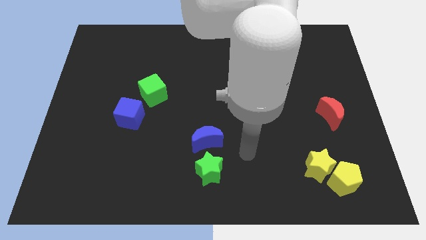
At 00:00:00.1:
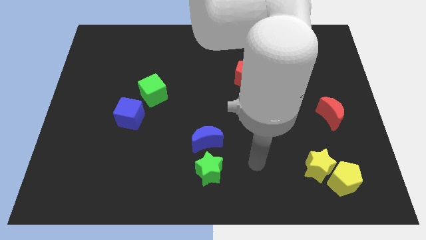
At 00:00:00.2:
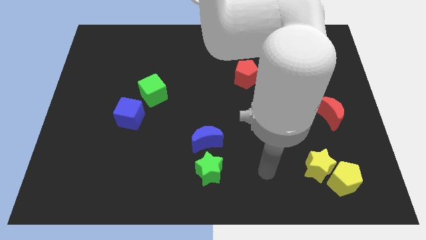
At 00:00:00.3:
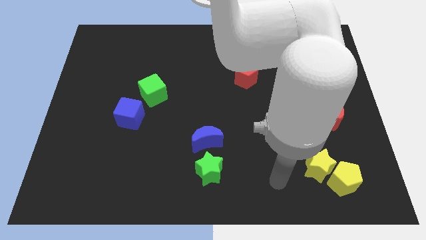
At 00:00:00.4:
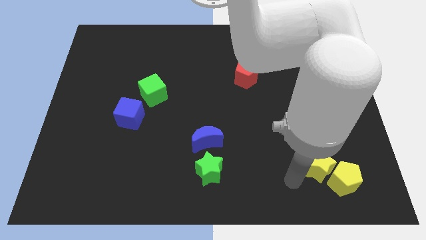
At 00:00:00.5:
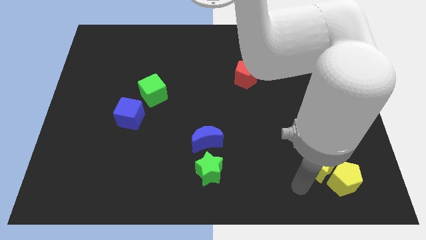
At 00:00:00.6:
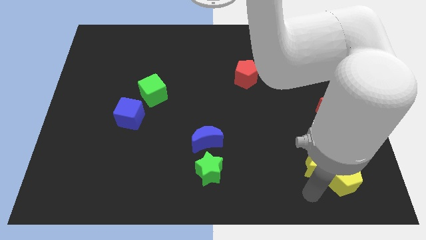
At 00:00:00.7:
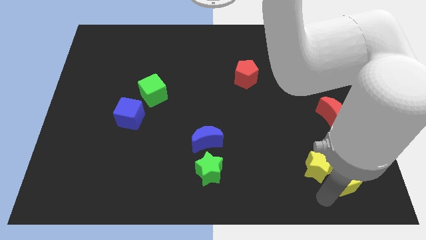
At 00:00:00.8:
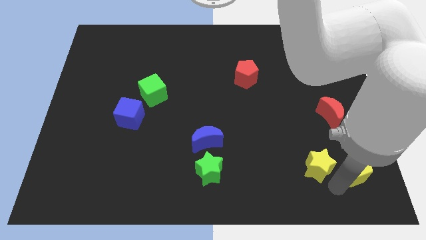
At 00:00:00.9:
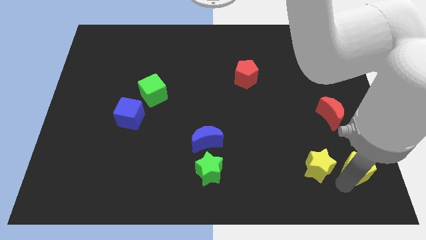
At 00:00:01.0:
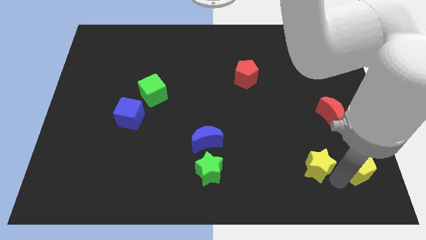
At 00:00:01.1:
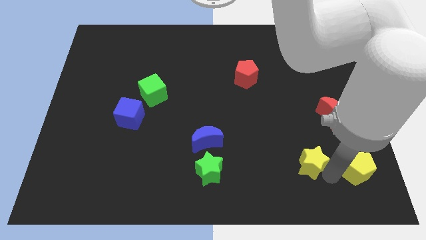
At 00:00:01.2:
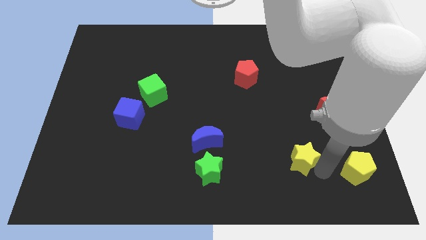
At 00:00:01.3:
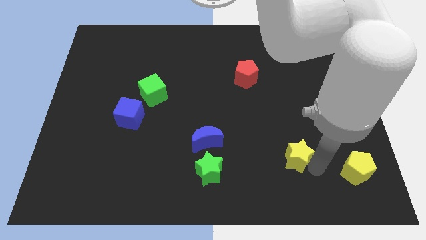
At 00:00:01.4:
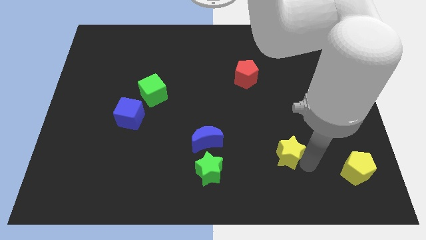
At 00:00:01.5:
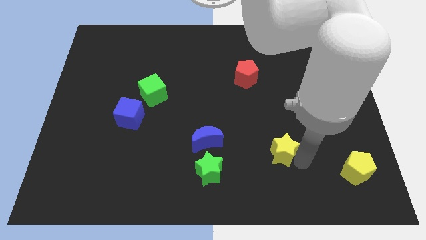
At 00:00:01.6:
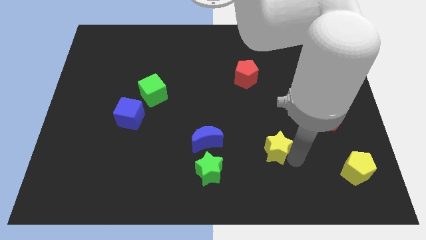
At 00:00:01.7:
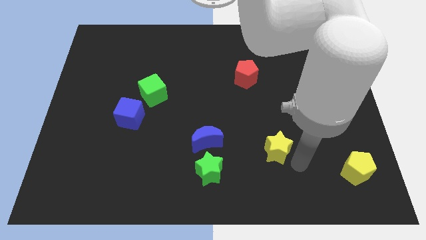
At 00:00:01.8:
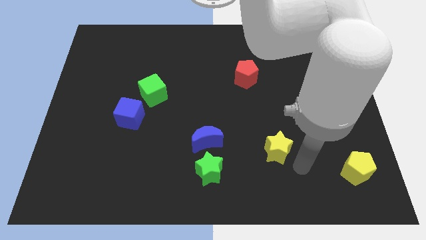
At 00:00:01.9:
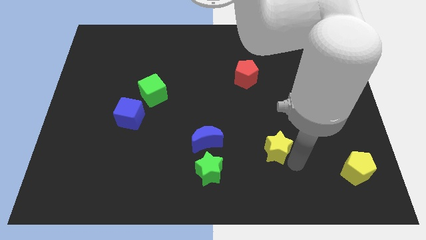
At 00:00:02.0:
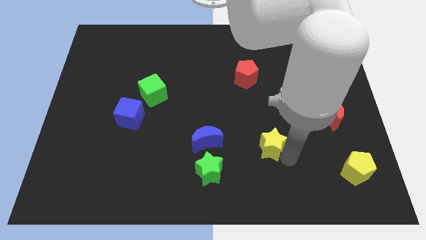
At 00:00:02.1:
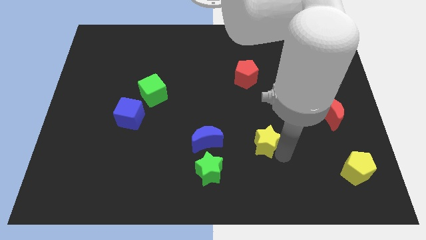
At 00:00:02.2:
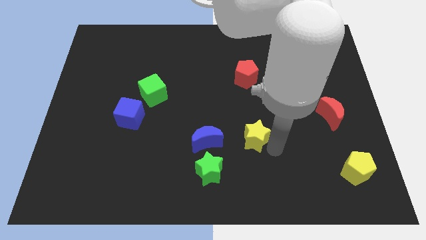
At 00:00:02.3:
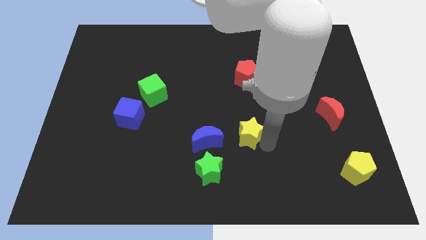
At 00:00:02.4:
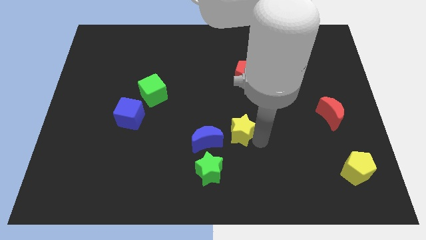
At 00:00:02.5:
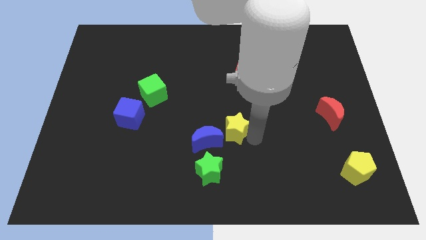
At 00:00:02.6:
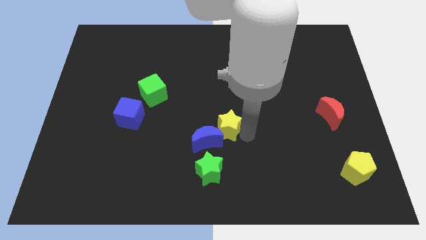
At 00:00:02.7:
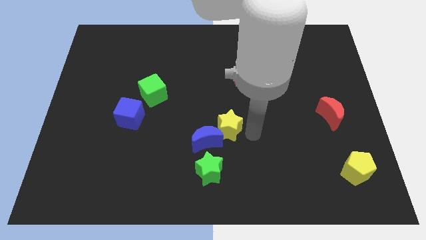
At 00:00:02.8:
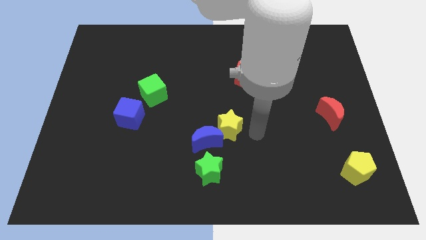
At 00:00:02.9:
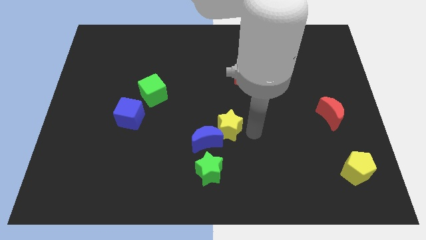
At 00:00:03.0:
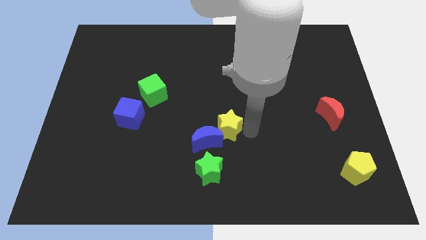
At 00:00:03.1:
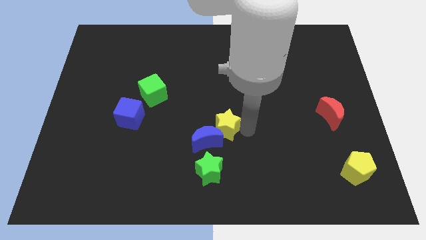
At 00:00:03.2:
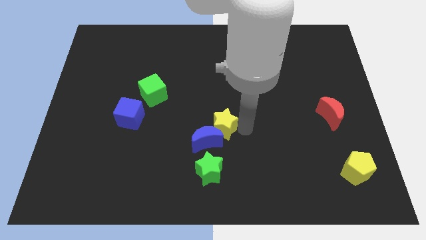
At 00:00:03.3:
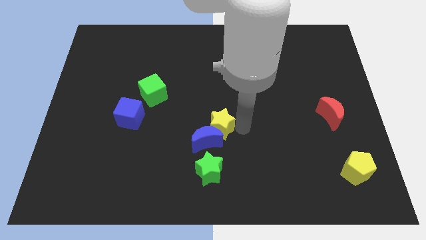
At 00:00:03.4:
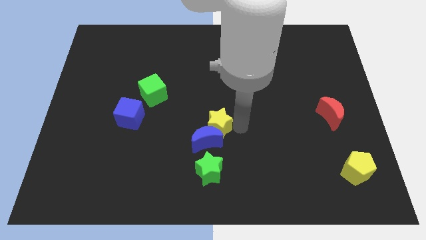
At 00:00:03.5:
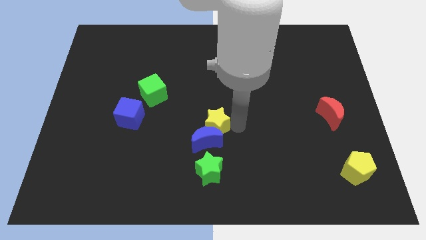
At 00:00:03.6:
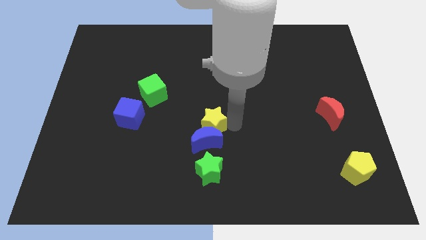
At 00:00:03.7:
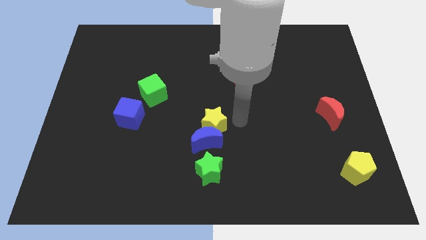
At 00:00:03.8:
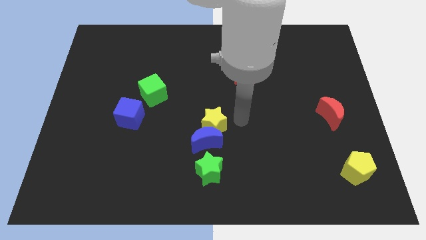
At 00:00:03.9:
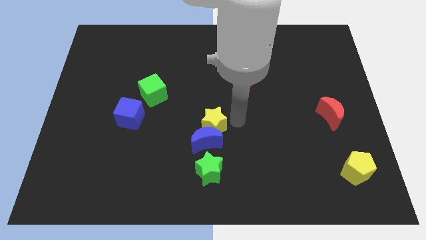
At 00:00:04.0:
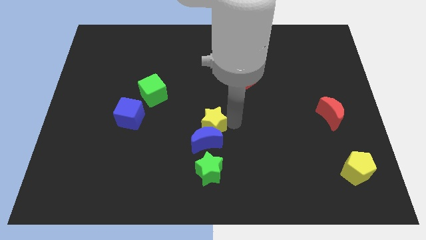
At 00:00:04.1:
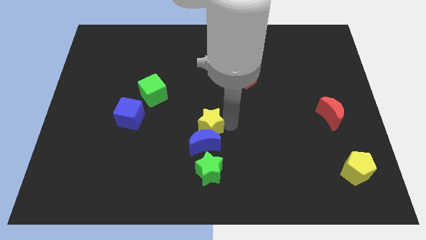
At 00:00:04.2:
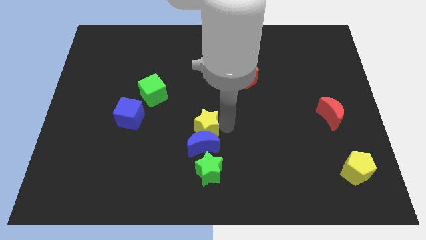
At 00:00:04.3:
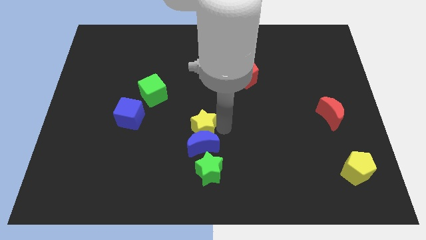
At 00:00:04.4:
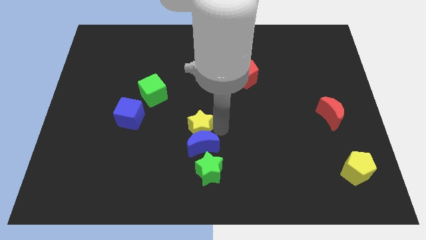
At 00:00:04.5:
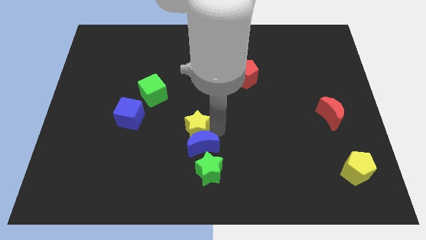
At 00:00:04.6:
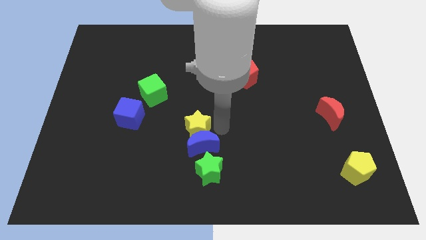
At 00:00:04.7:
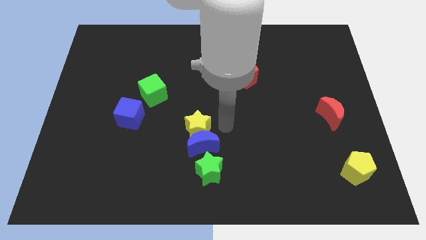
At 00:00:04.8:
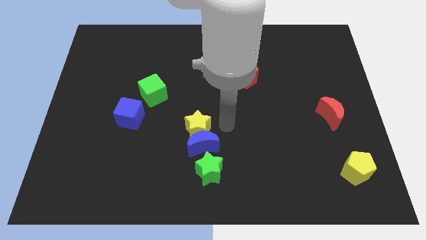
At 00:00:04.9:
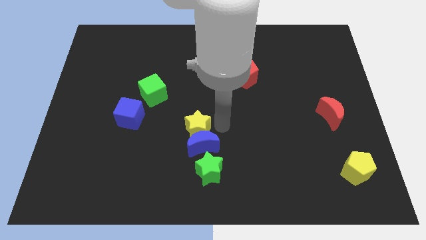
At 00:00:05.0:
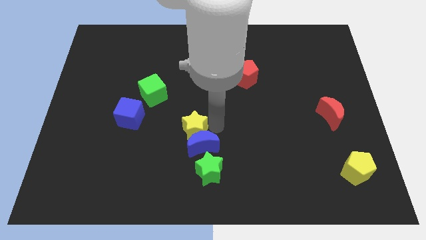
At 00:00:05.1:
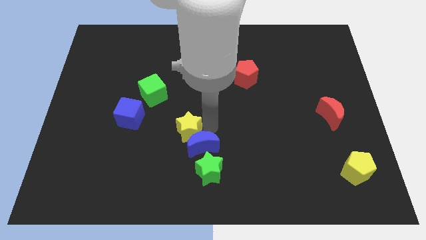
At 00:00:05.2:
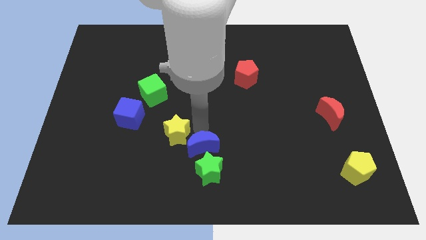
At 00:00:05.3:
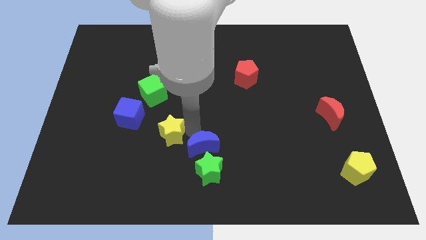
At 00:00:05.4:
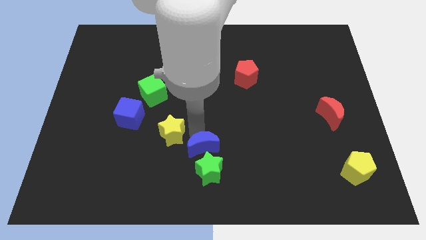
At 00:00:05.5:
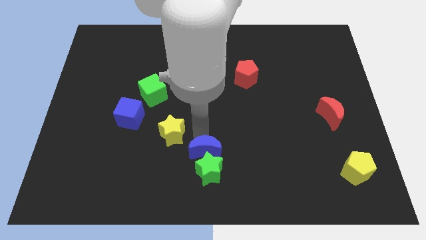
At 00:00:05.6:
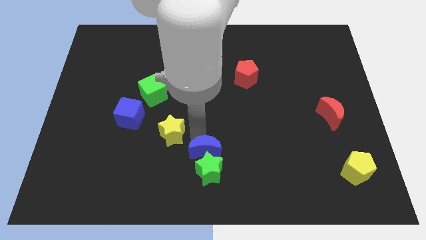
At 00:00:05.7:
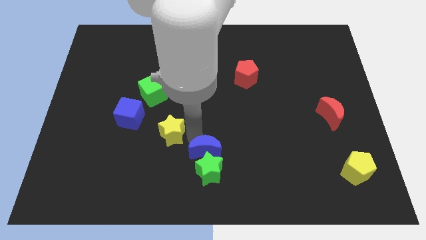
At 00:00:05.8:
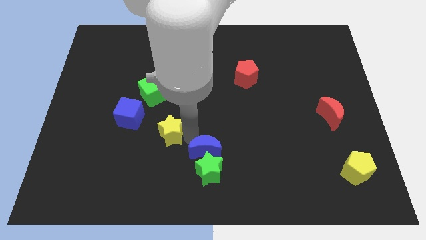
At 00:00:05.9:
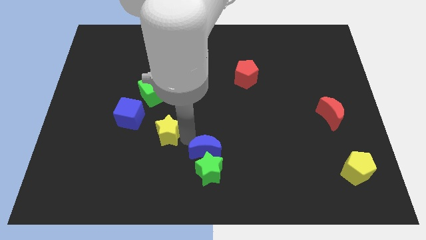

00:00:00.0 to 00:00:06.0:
slide the yellow star below the green cube

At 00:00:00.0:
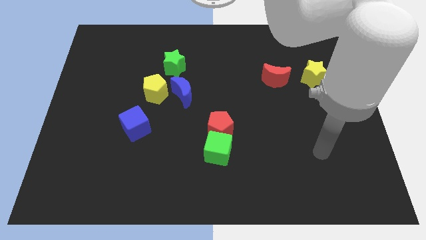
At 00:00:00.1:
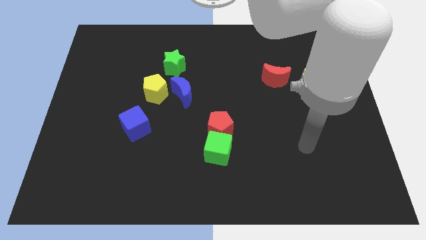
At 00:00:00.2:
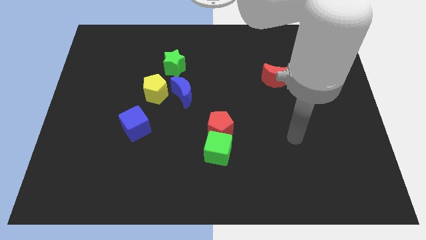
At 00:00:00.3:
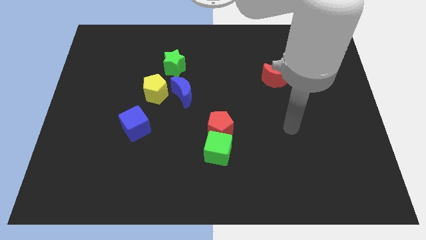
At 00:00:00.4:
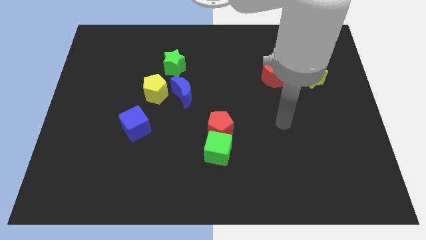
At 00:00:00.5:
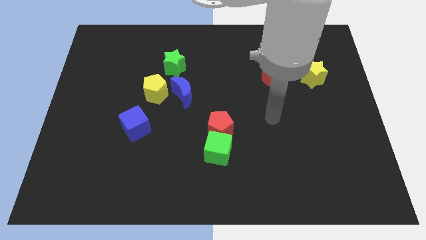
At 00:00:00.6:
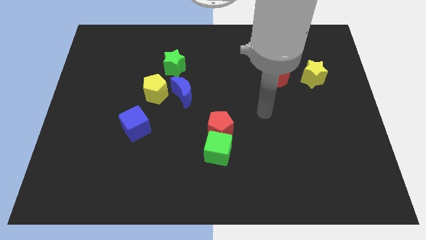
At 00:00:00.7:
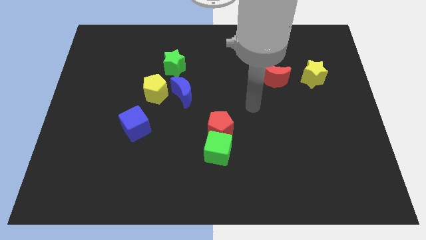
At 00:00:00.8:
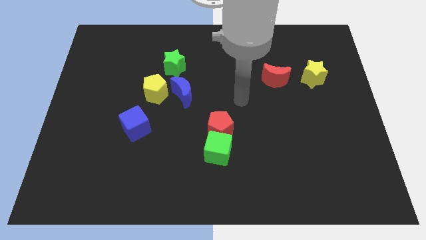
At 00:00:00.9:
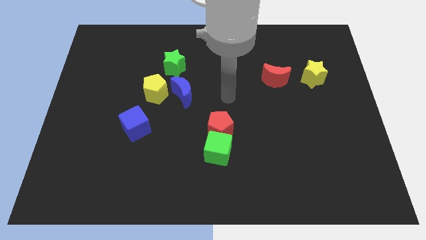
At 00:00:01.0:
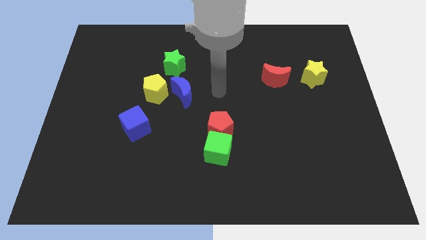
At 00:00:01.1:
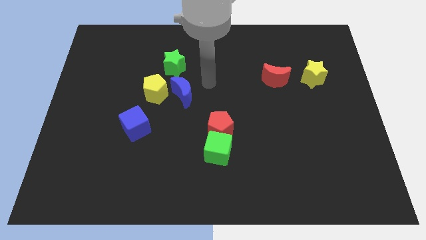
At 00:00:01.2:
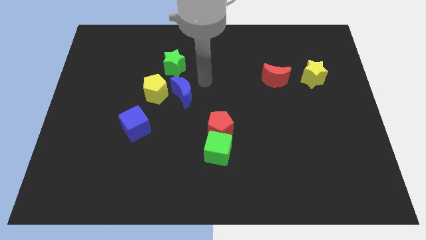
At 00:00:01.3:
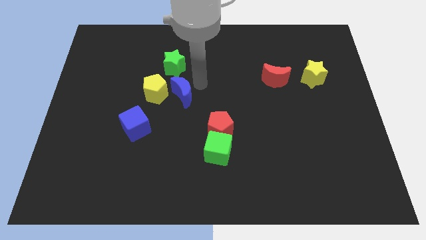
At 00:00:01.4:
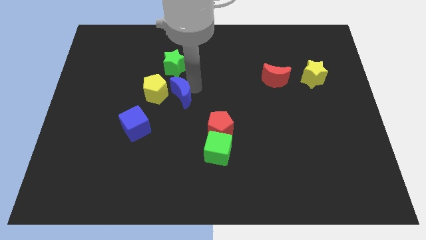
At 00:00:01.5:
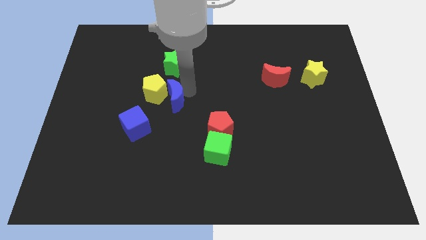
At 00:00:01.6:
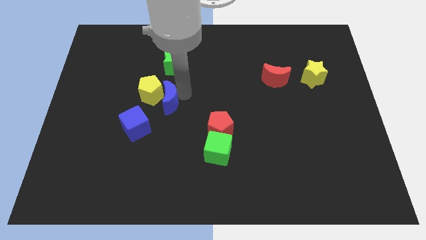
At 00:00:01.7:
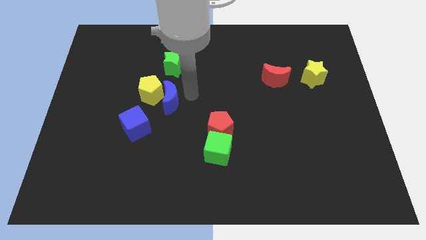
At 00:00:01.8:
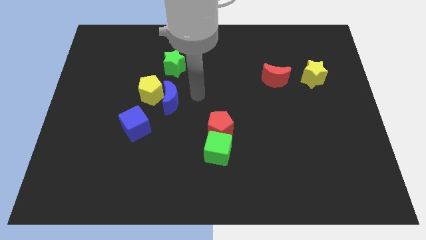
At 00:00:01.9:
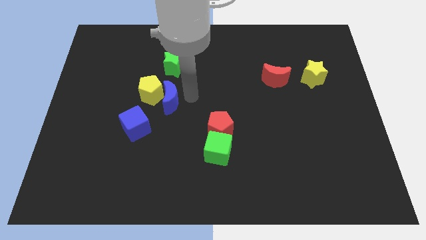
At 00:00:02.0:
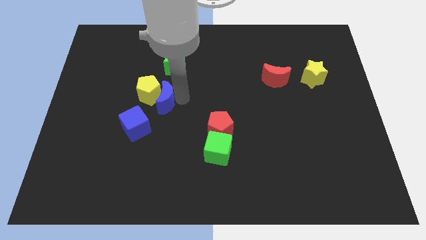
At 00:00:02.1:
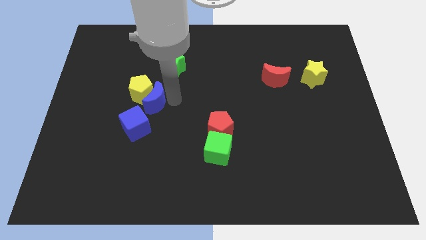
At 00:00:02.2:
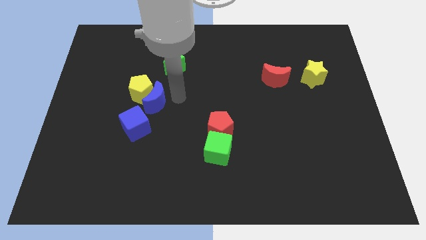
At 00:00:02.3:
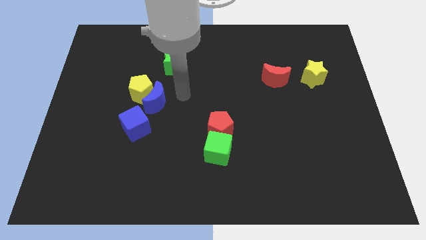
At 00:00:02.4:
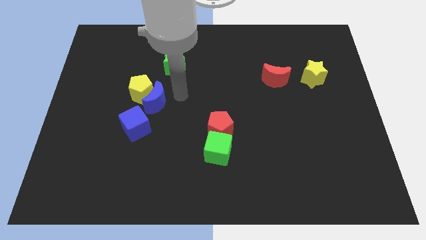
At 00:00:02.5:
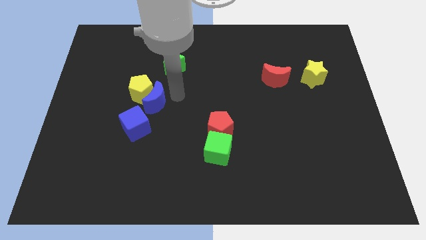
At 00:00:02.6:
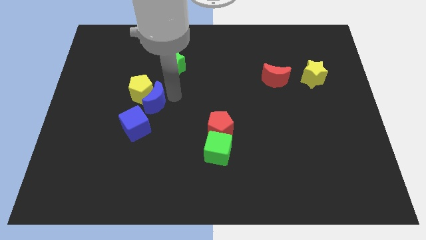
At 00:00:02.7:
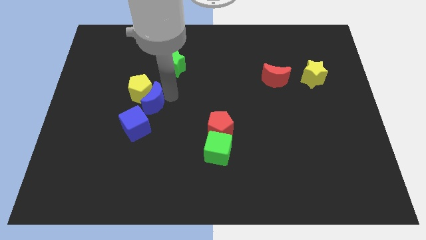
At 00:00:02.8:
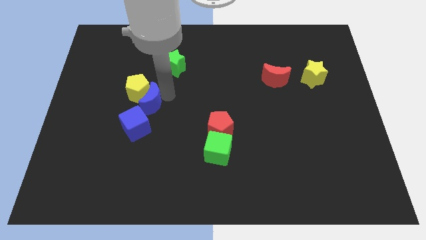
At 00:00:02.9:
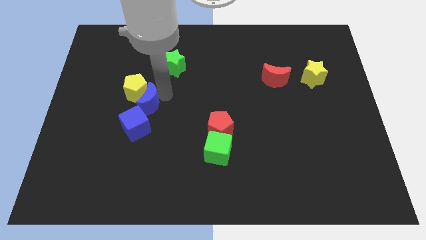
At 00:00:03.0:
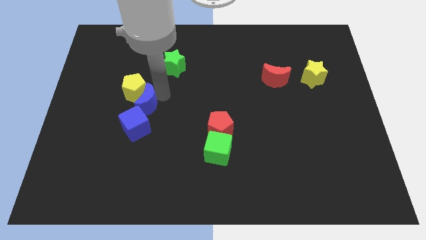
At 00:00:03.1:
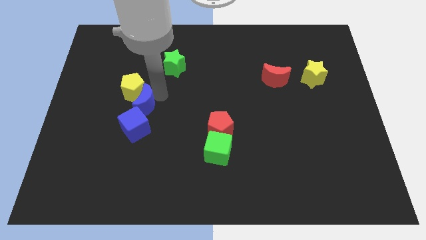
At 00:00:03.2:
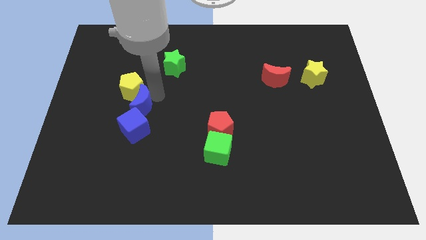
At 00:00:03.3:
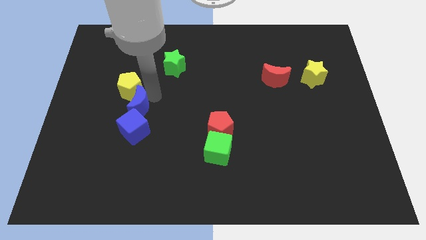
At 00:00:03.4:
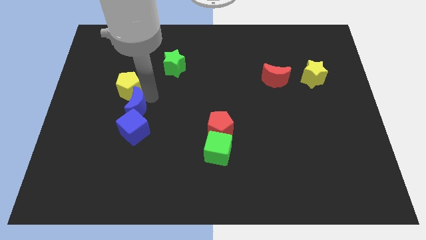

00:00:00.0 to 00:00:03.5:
slide the blue moon to the top left side of the blue cube
